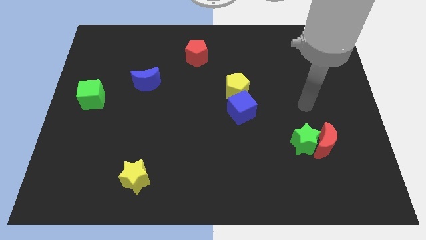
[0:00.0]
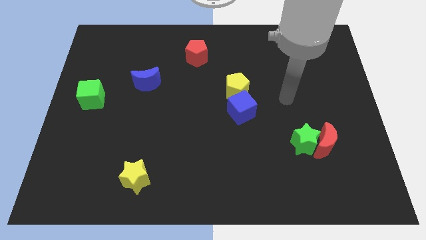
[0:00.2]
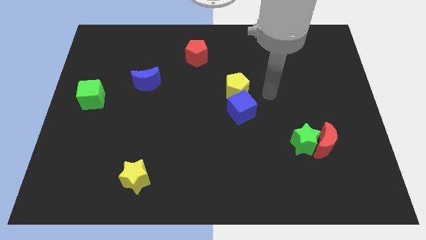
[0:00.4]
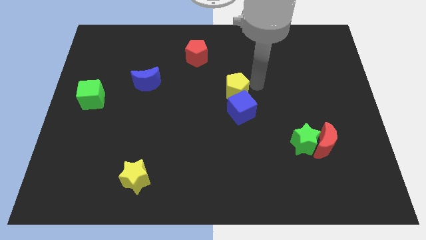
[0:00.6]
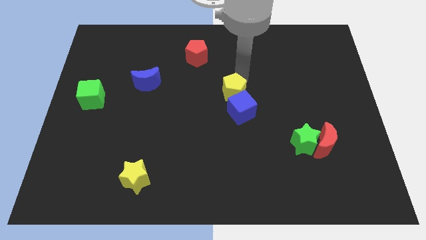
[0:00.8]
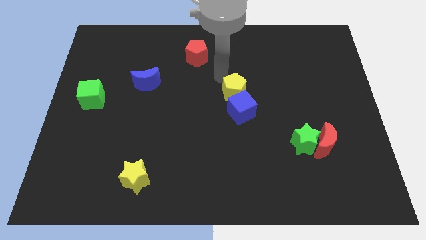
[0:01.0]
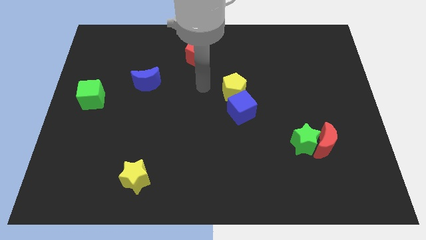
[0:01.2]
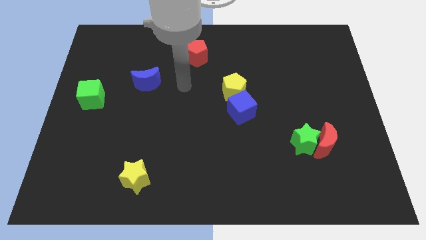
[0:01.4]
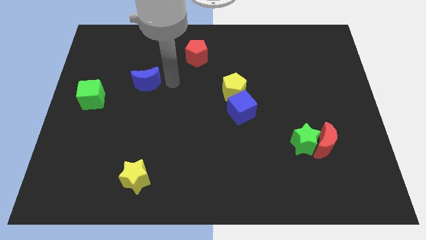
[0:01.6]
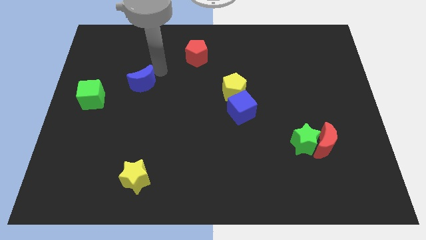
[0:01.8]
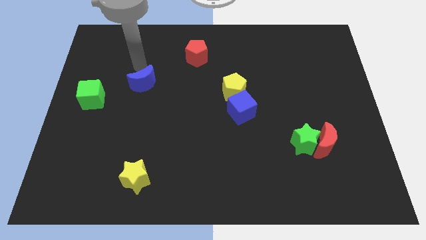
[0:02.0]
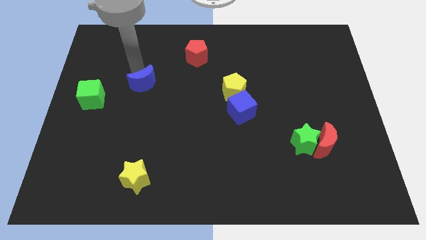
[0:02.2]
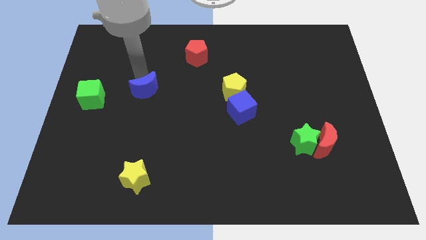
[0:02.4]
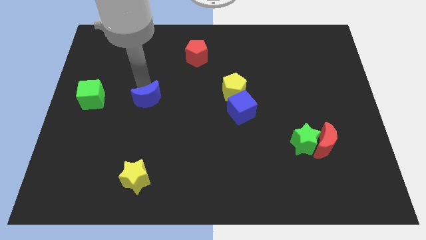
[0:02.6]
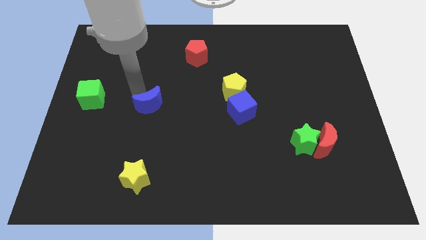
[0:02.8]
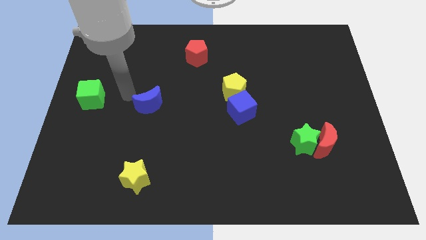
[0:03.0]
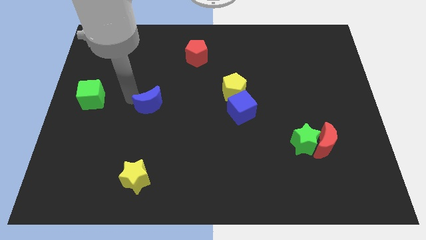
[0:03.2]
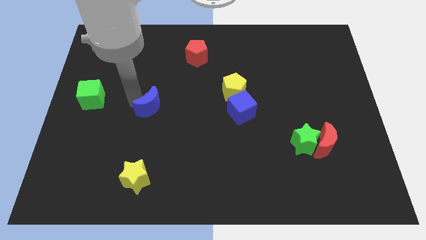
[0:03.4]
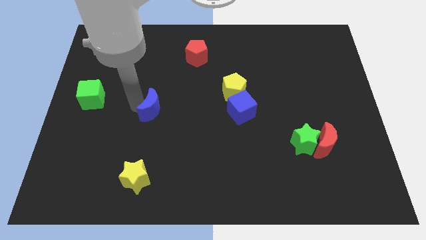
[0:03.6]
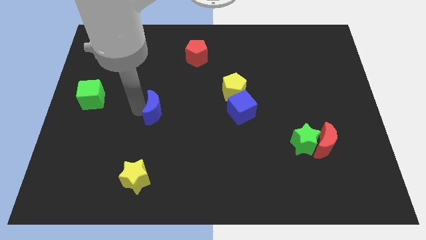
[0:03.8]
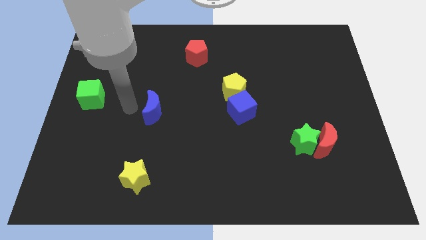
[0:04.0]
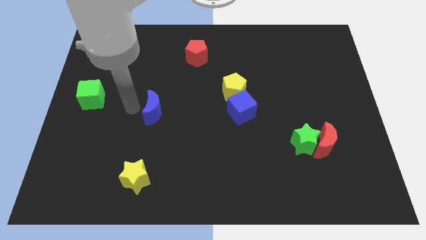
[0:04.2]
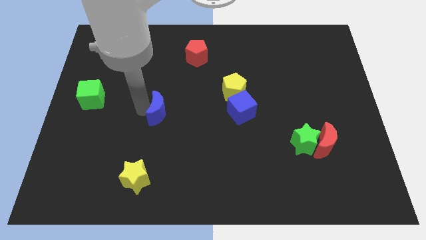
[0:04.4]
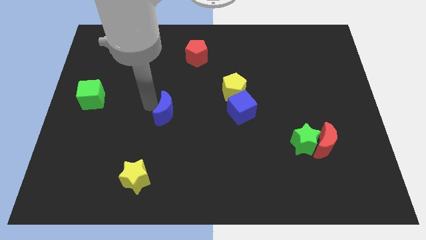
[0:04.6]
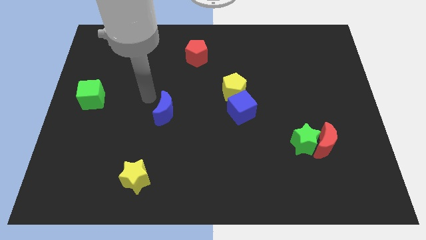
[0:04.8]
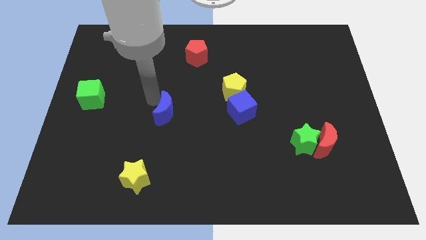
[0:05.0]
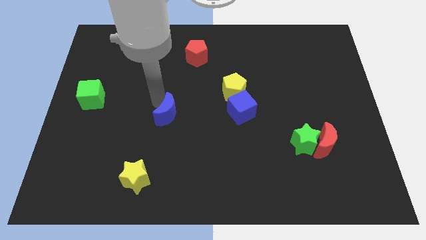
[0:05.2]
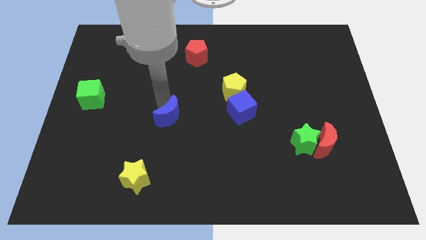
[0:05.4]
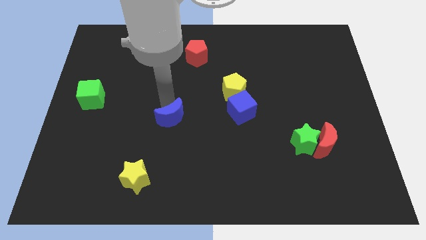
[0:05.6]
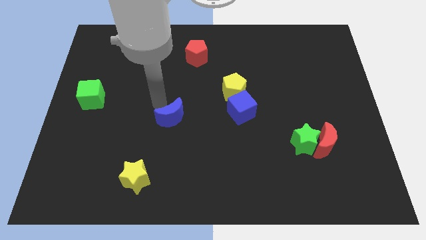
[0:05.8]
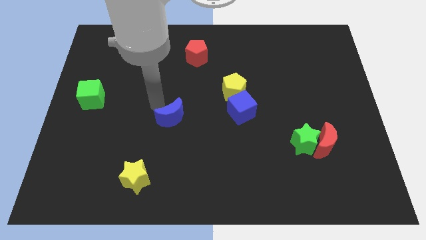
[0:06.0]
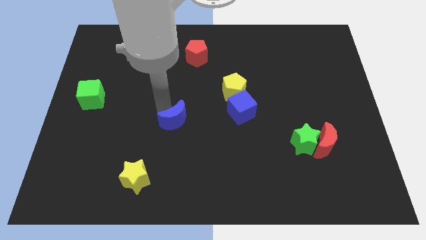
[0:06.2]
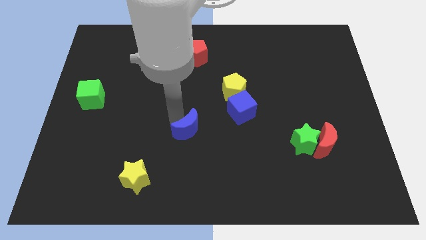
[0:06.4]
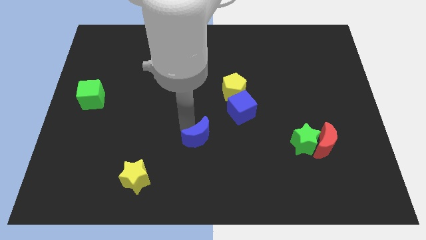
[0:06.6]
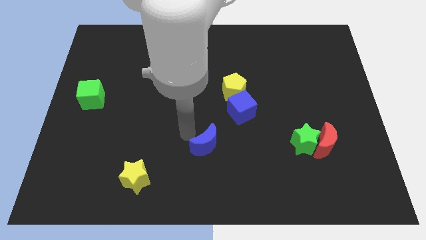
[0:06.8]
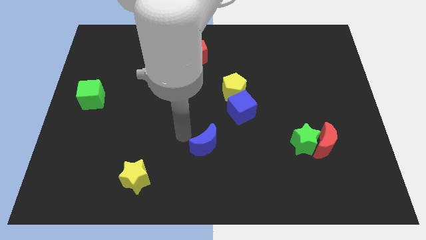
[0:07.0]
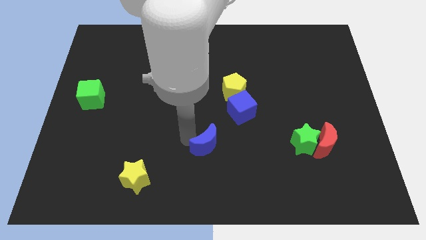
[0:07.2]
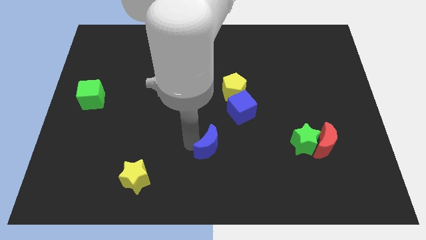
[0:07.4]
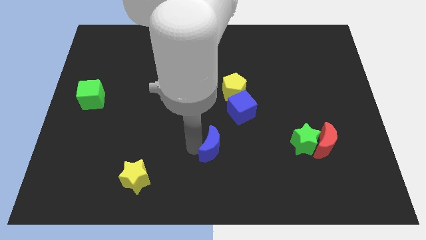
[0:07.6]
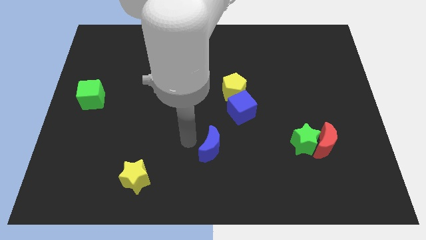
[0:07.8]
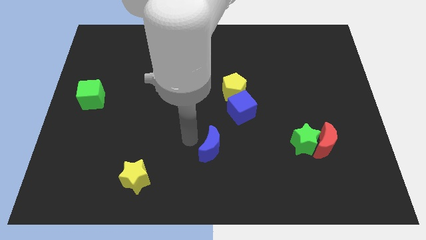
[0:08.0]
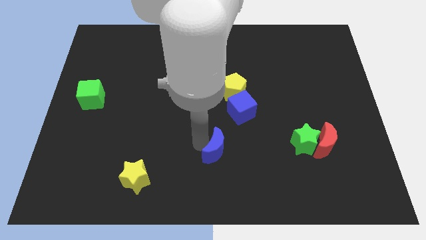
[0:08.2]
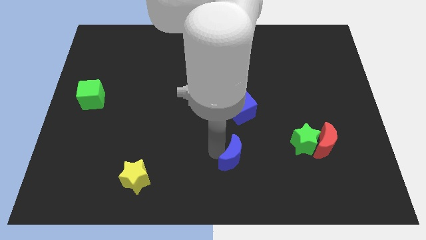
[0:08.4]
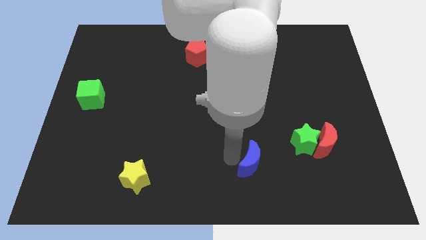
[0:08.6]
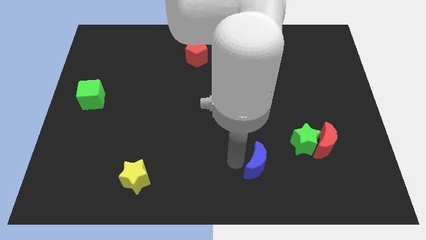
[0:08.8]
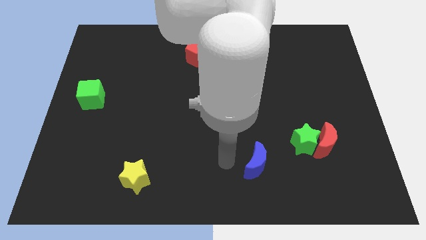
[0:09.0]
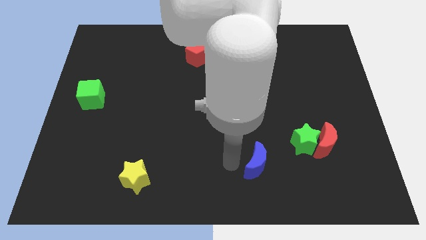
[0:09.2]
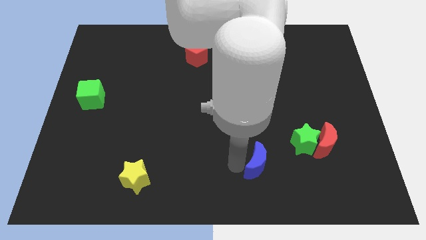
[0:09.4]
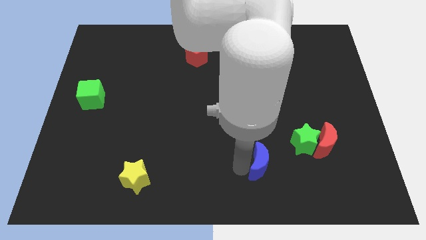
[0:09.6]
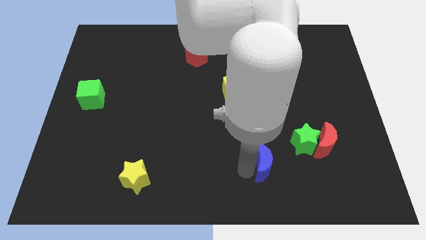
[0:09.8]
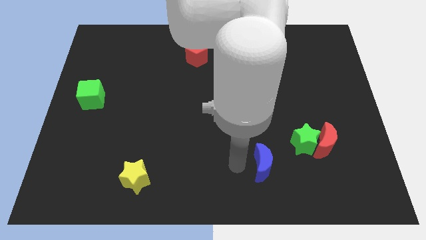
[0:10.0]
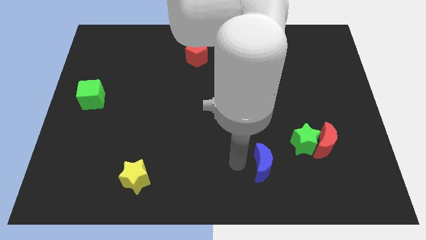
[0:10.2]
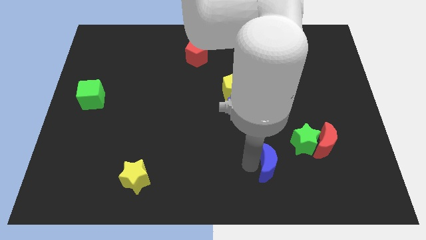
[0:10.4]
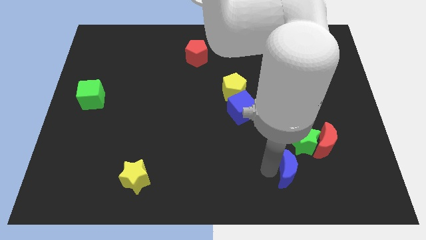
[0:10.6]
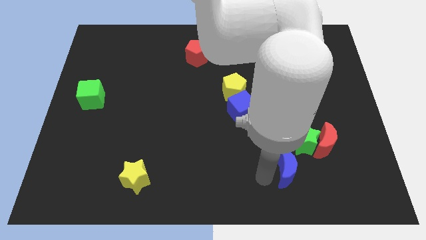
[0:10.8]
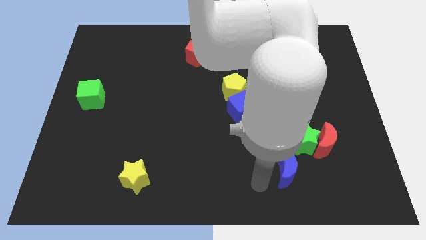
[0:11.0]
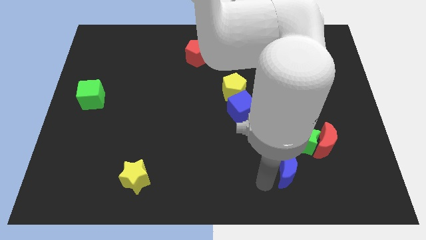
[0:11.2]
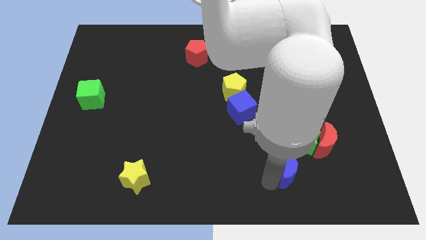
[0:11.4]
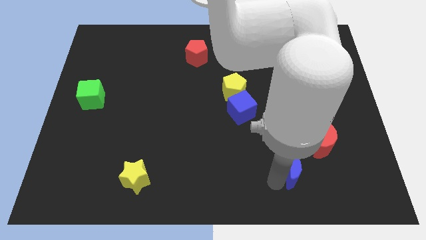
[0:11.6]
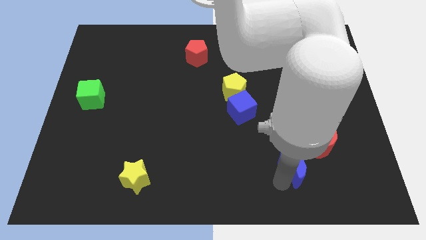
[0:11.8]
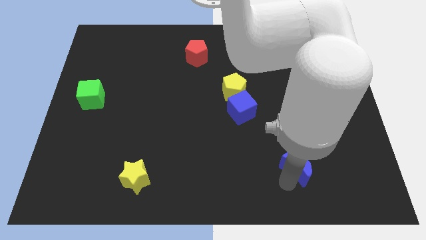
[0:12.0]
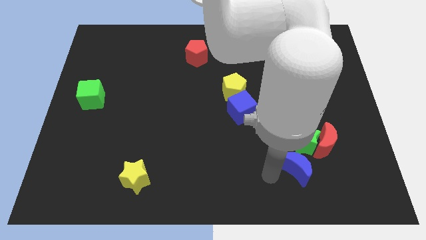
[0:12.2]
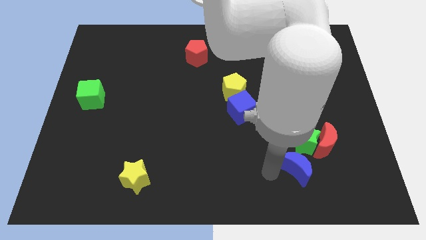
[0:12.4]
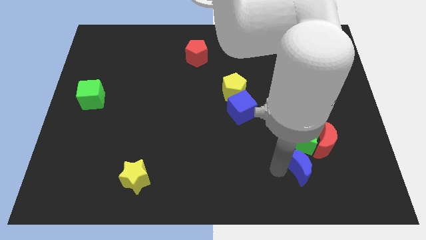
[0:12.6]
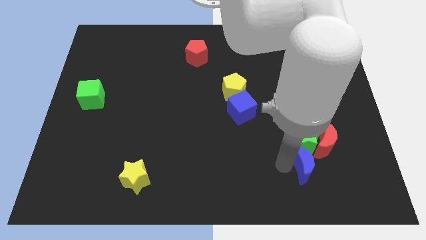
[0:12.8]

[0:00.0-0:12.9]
move the blue moon diagonally down and to the right of the green star
